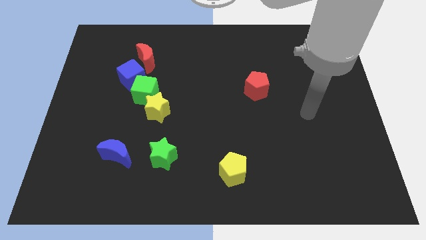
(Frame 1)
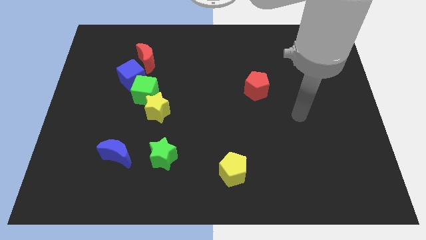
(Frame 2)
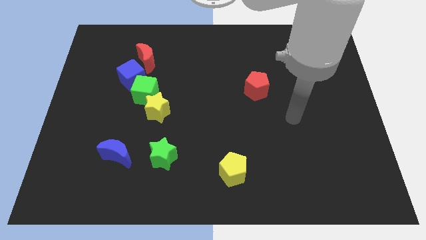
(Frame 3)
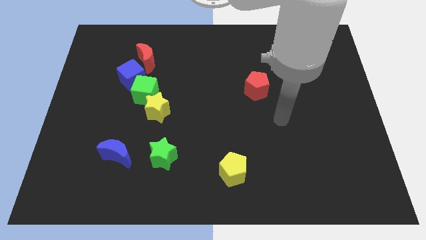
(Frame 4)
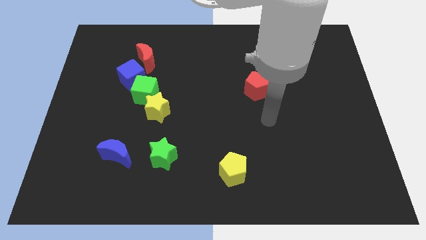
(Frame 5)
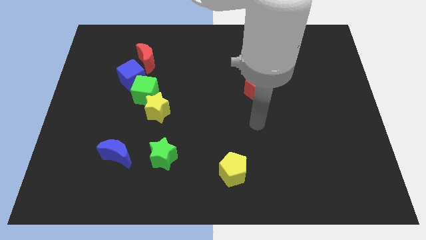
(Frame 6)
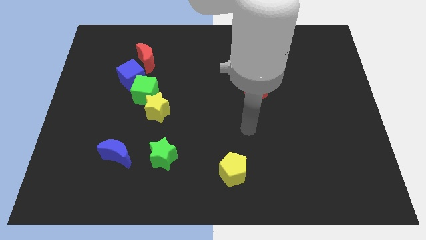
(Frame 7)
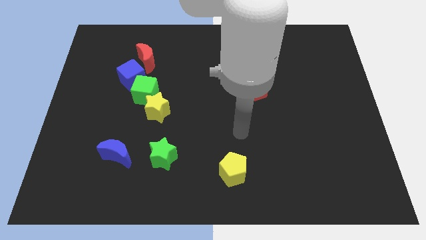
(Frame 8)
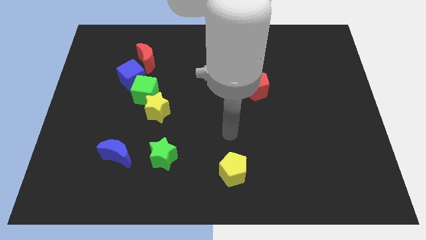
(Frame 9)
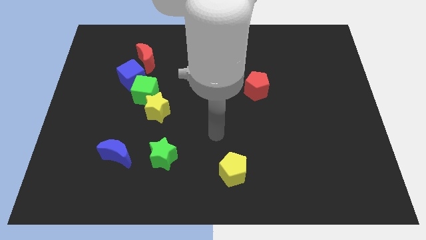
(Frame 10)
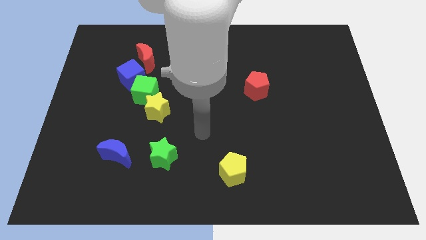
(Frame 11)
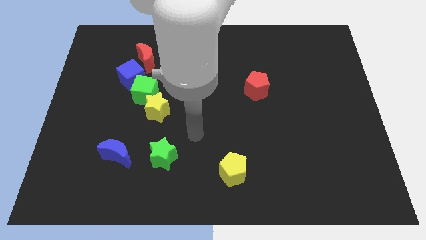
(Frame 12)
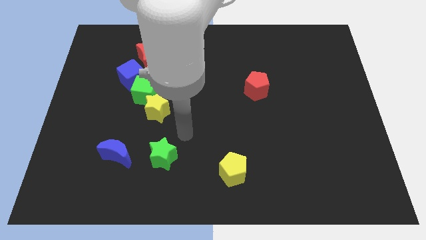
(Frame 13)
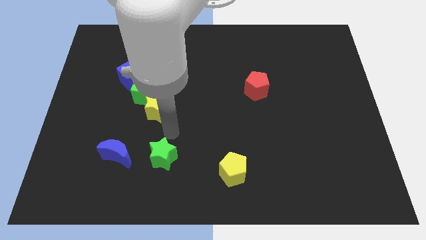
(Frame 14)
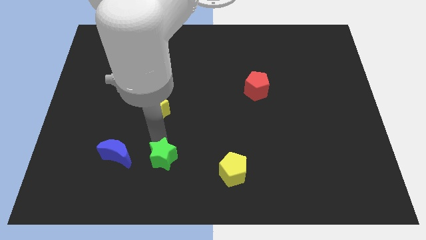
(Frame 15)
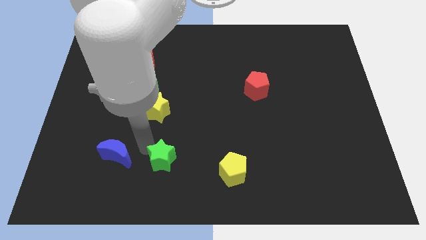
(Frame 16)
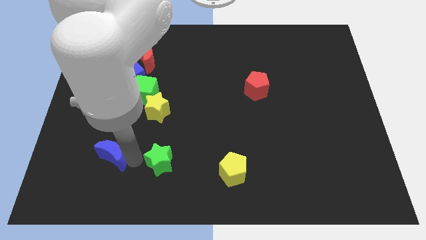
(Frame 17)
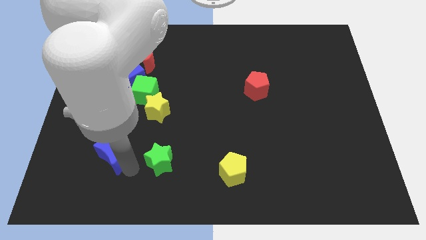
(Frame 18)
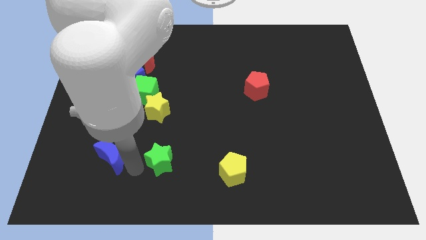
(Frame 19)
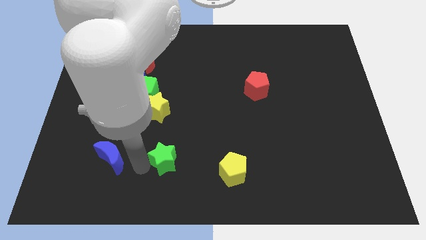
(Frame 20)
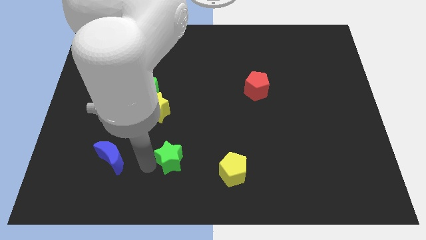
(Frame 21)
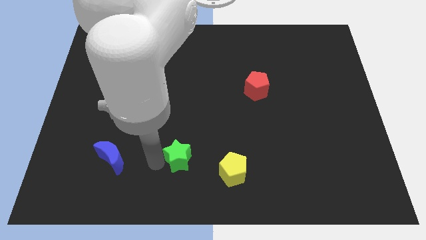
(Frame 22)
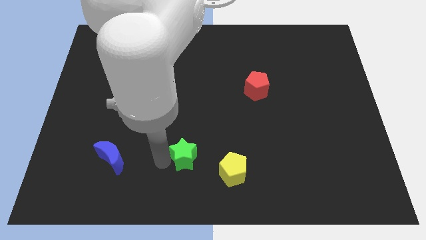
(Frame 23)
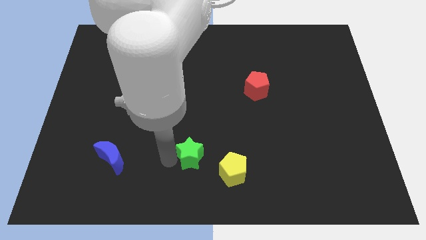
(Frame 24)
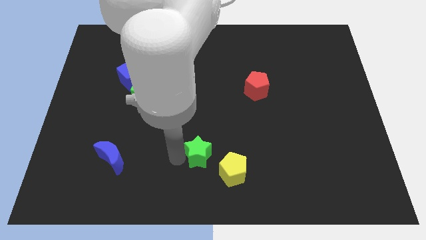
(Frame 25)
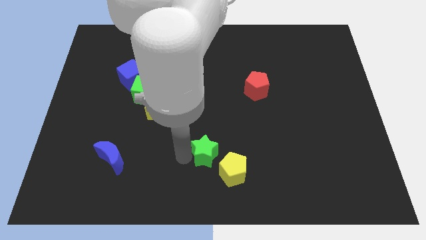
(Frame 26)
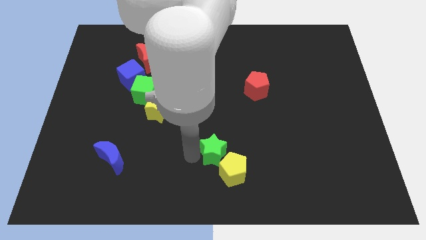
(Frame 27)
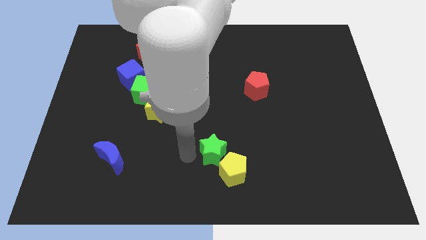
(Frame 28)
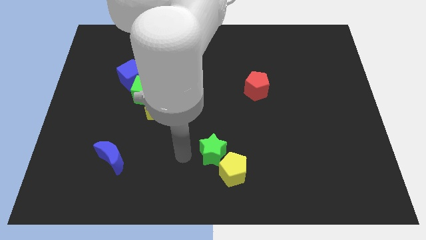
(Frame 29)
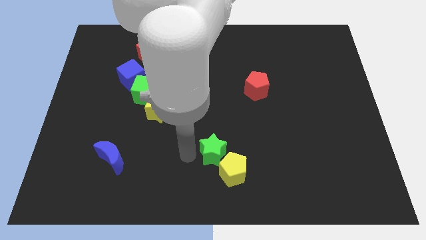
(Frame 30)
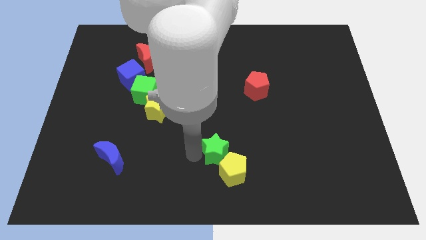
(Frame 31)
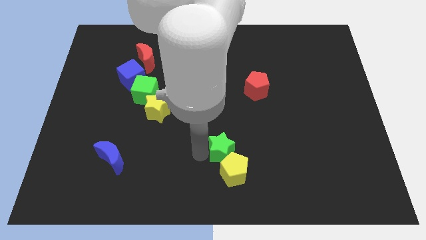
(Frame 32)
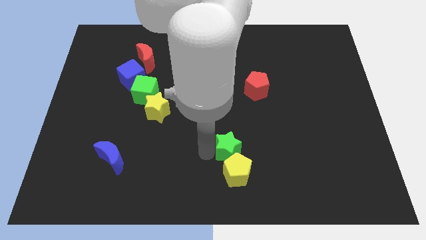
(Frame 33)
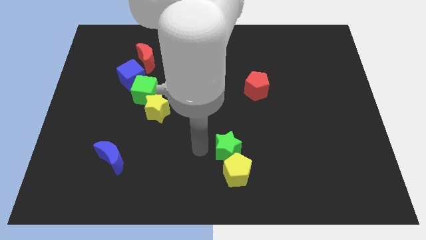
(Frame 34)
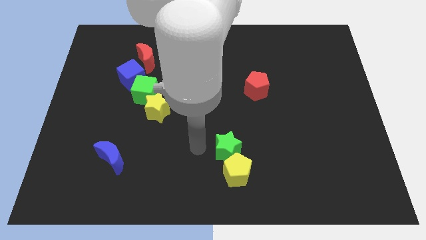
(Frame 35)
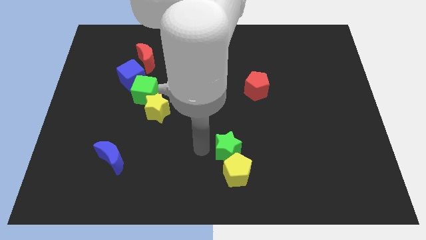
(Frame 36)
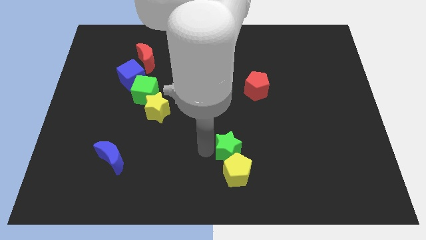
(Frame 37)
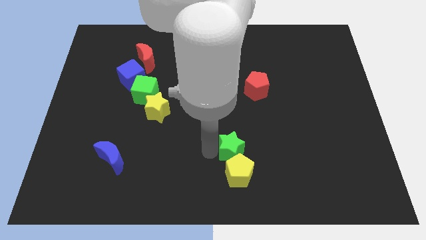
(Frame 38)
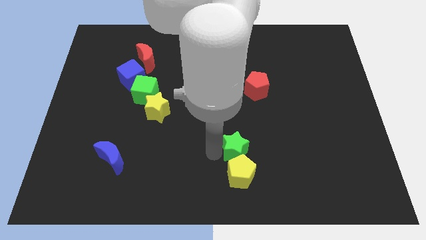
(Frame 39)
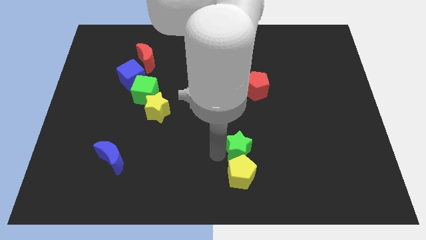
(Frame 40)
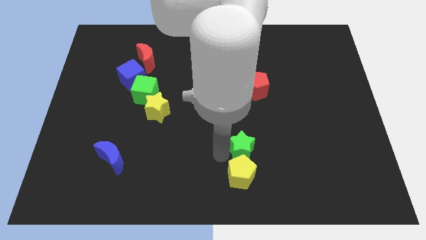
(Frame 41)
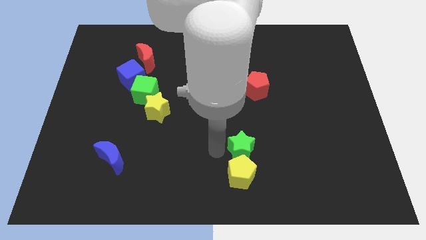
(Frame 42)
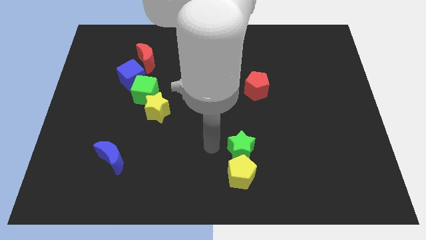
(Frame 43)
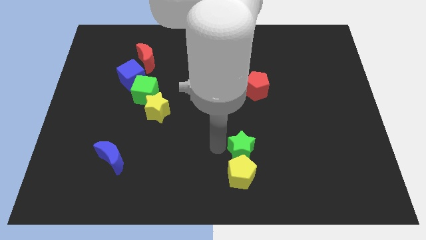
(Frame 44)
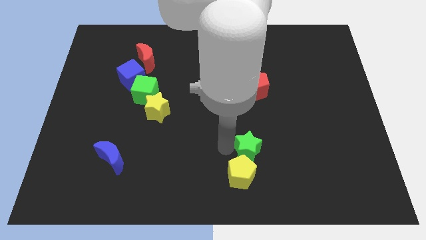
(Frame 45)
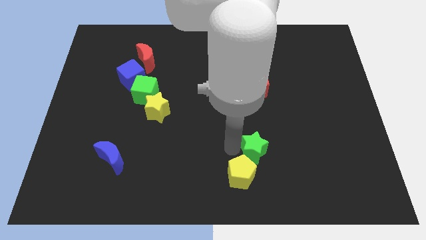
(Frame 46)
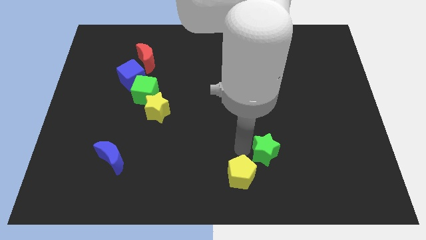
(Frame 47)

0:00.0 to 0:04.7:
move the green star right

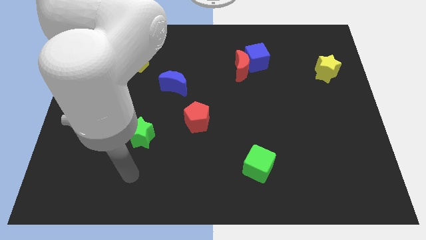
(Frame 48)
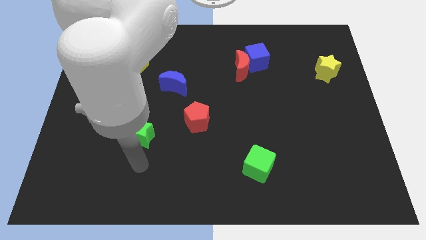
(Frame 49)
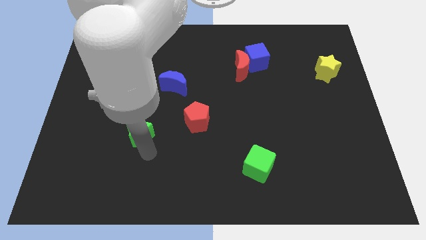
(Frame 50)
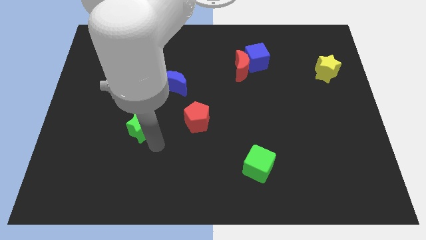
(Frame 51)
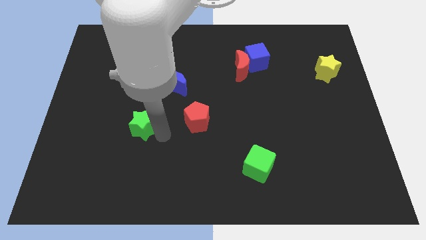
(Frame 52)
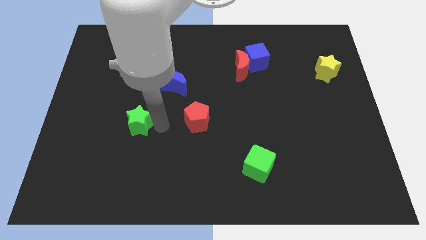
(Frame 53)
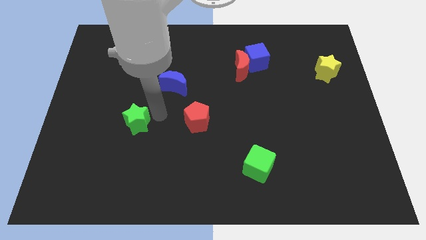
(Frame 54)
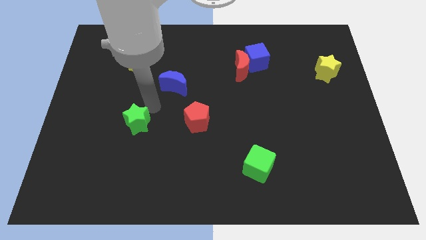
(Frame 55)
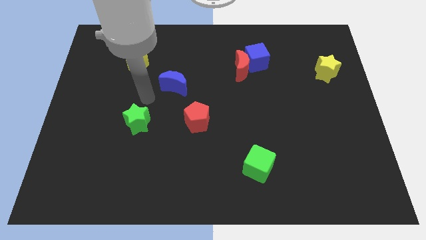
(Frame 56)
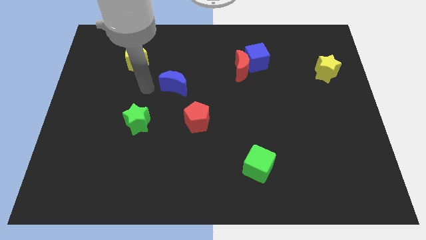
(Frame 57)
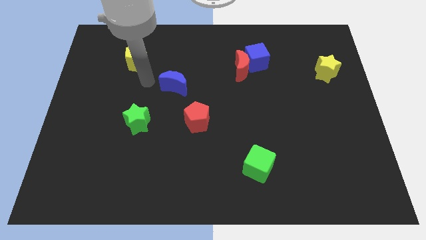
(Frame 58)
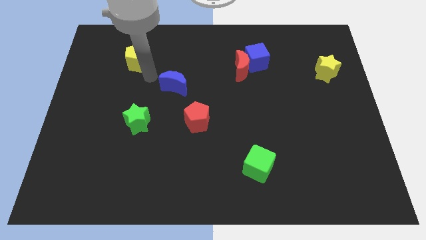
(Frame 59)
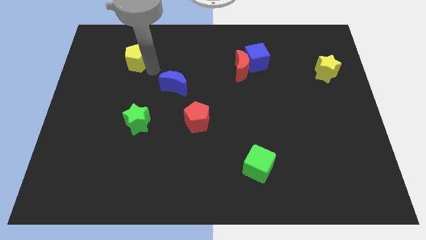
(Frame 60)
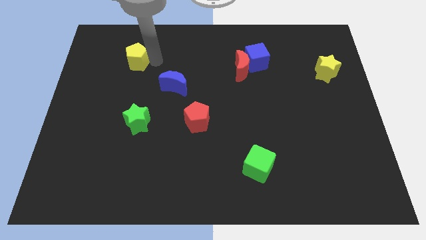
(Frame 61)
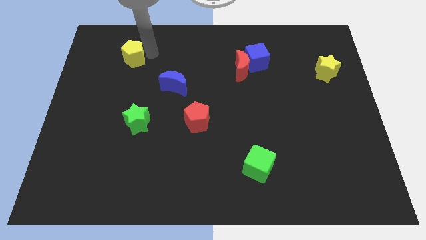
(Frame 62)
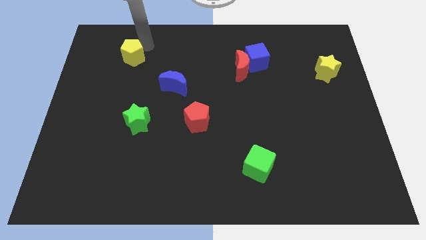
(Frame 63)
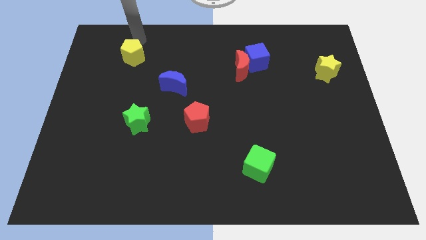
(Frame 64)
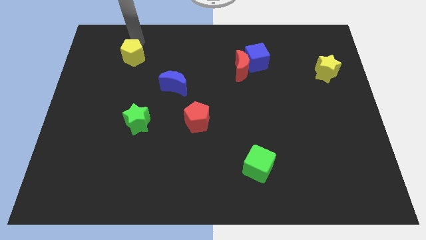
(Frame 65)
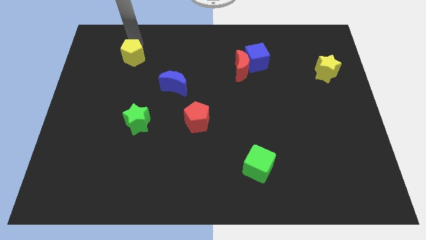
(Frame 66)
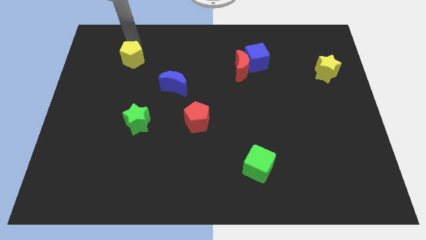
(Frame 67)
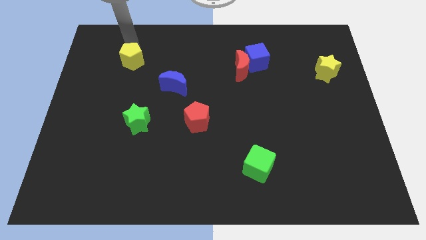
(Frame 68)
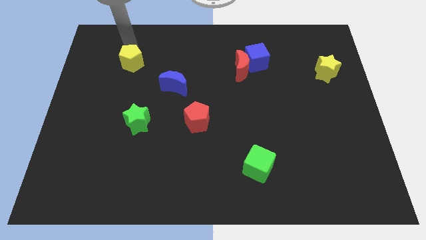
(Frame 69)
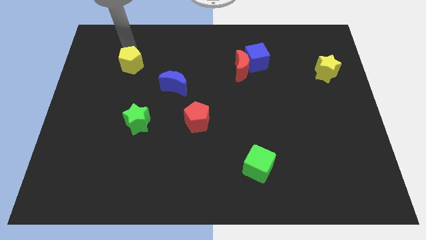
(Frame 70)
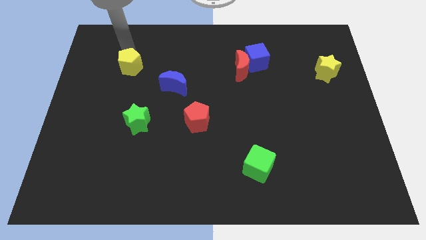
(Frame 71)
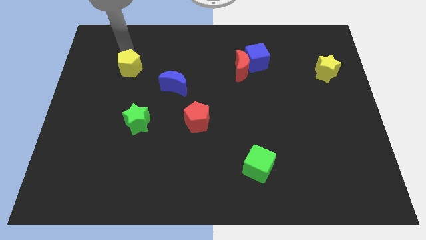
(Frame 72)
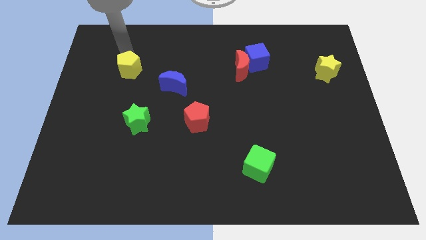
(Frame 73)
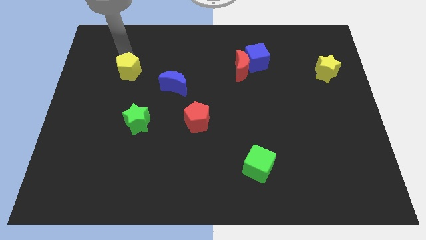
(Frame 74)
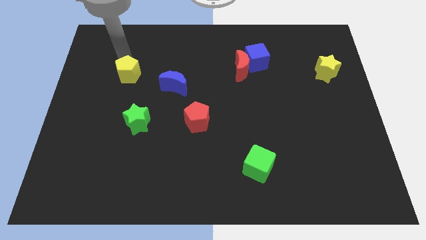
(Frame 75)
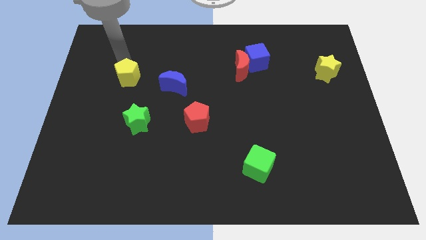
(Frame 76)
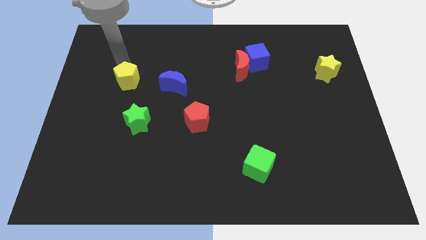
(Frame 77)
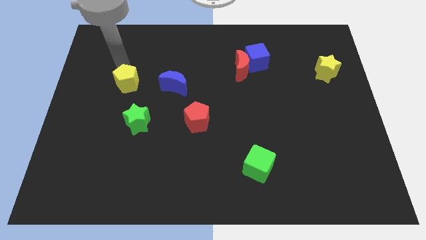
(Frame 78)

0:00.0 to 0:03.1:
slightly push the yellow pentagon down
